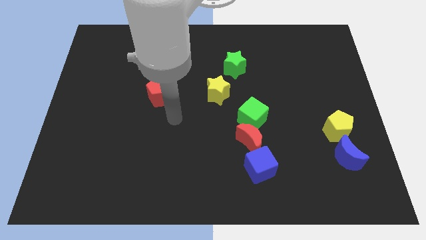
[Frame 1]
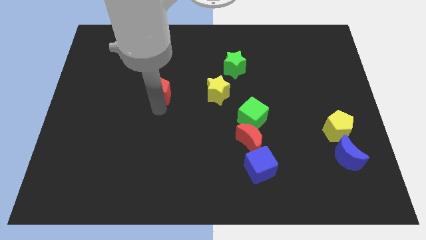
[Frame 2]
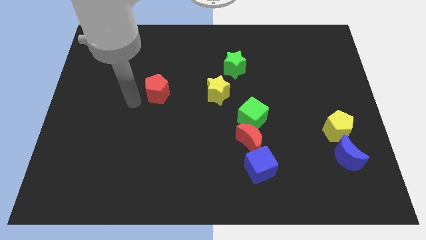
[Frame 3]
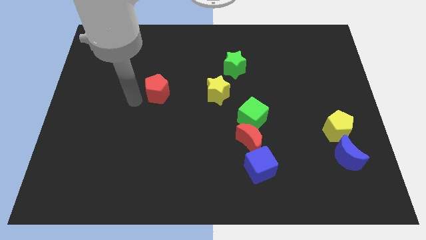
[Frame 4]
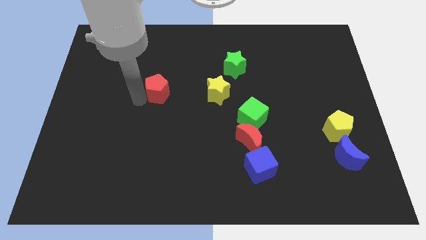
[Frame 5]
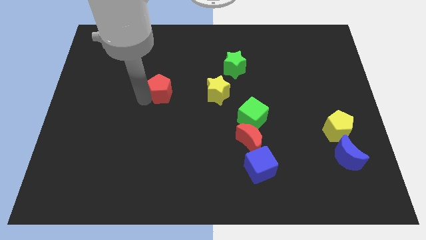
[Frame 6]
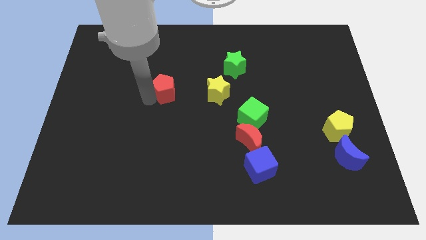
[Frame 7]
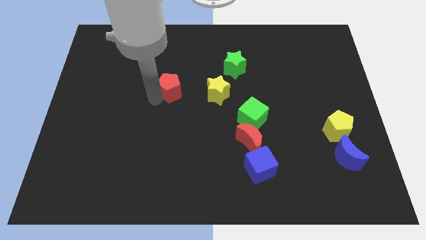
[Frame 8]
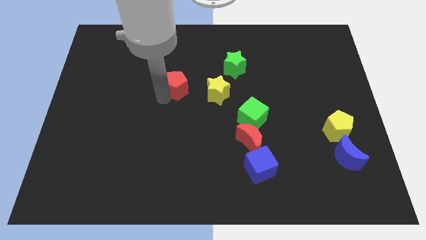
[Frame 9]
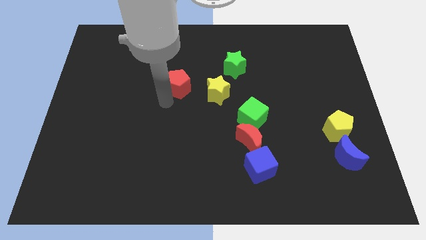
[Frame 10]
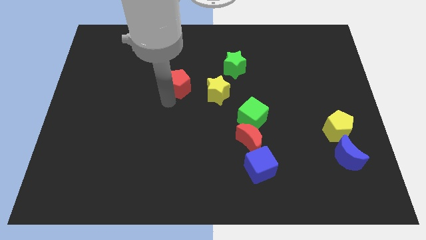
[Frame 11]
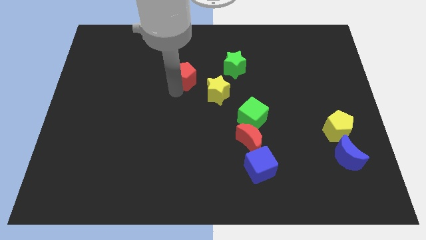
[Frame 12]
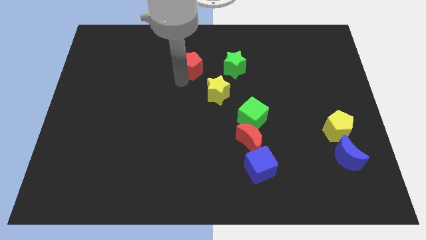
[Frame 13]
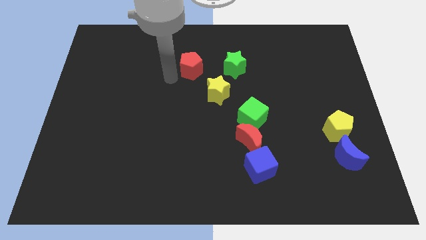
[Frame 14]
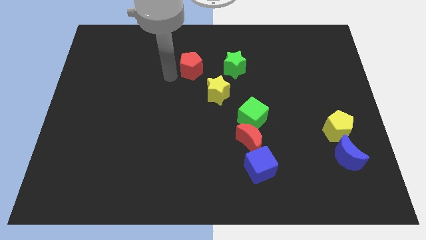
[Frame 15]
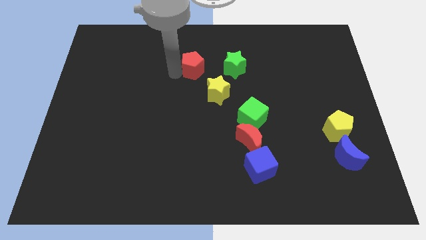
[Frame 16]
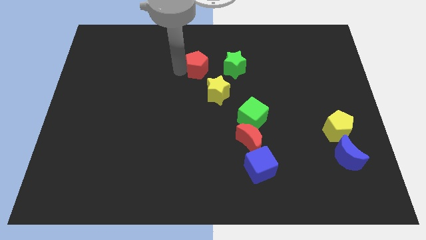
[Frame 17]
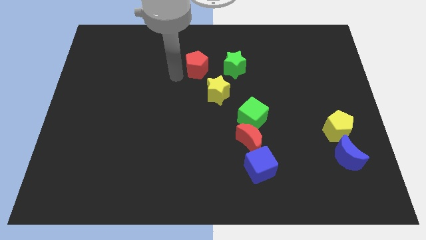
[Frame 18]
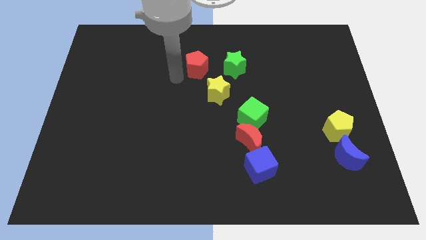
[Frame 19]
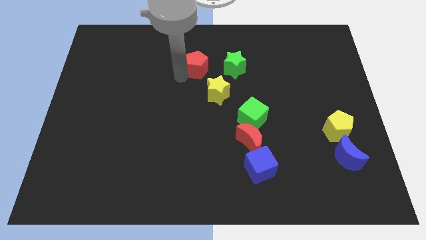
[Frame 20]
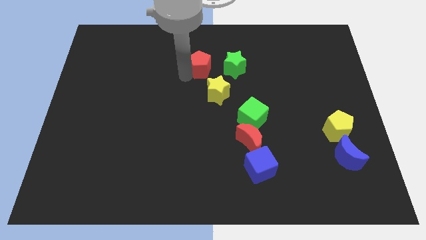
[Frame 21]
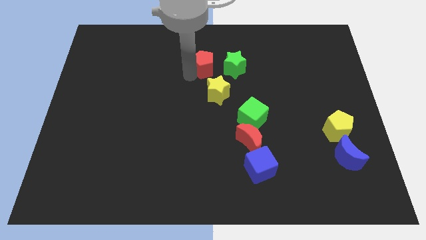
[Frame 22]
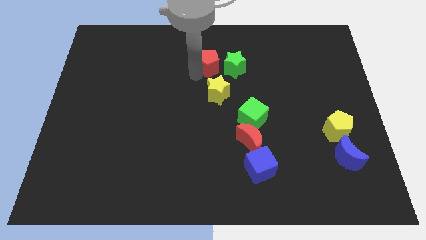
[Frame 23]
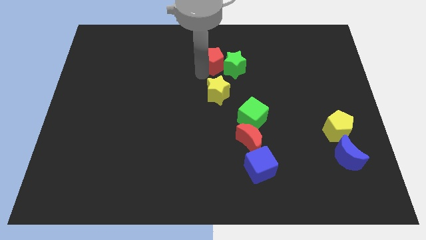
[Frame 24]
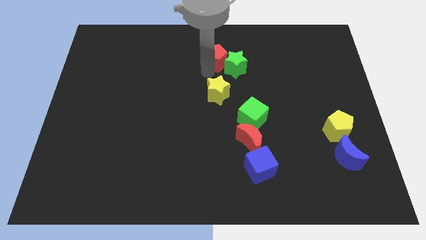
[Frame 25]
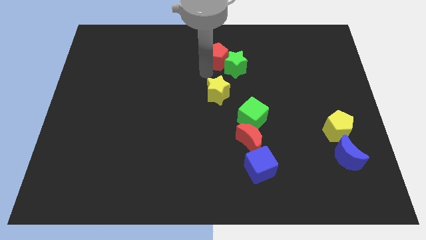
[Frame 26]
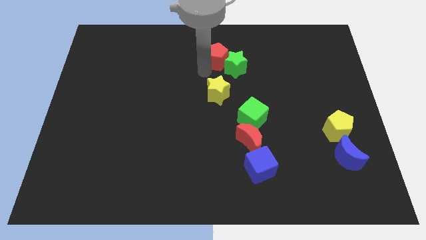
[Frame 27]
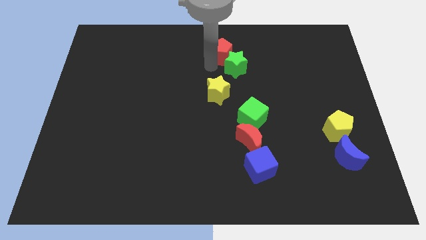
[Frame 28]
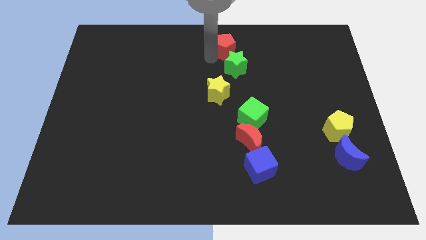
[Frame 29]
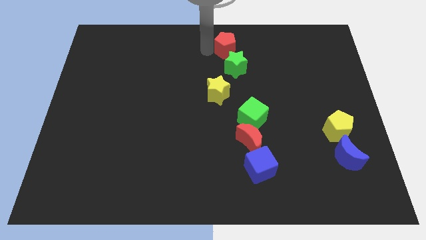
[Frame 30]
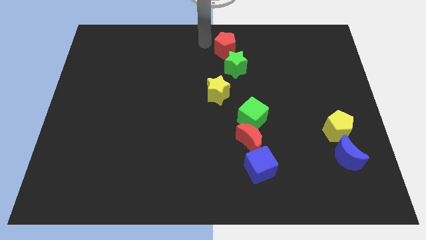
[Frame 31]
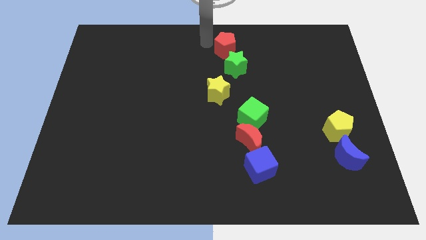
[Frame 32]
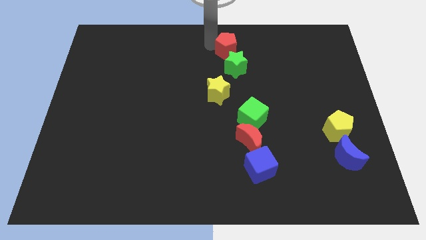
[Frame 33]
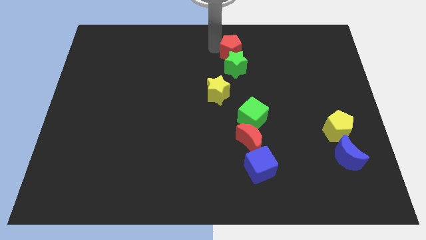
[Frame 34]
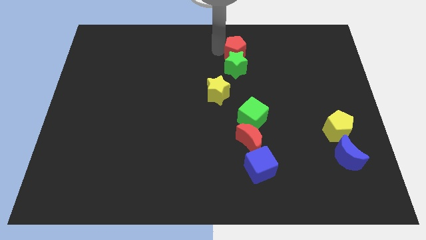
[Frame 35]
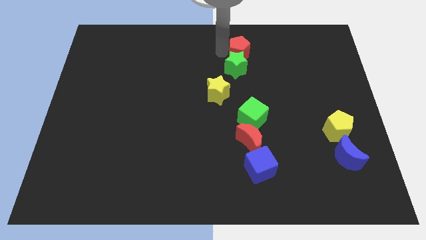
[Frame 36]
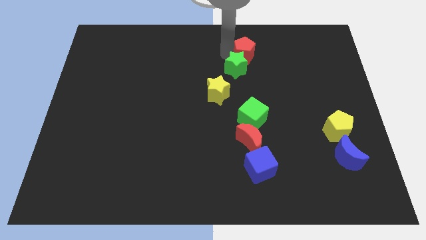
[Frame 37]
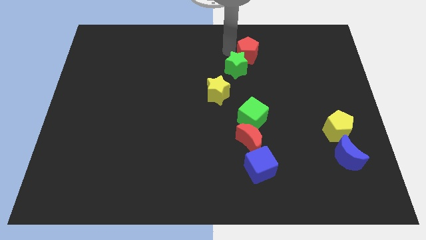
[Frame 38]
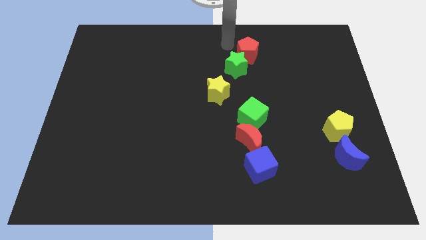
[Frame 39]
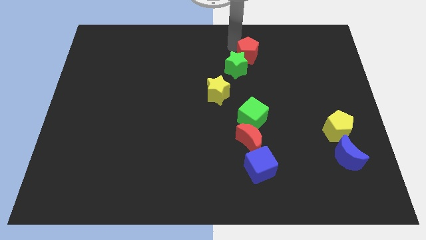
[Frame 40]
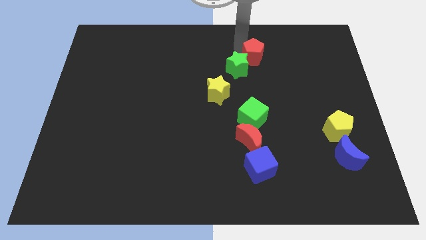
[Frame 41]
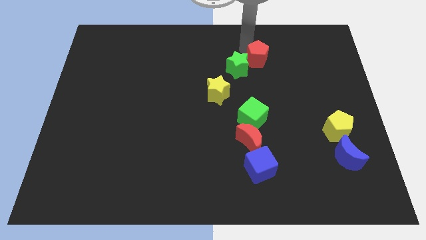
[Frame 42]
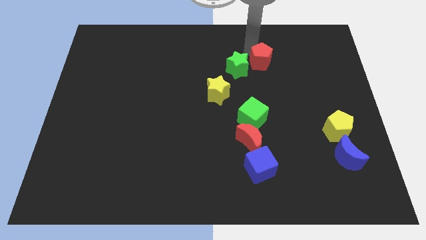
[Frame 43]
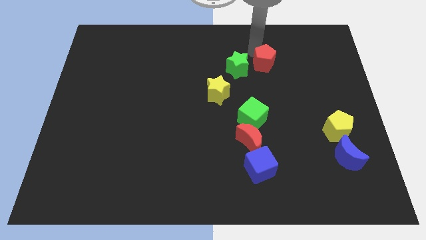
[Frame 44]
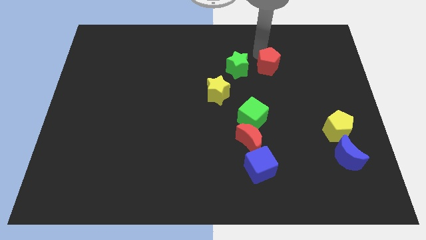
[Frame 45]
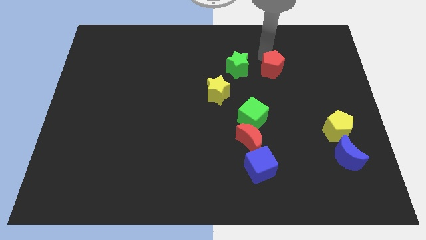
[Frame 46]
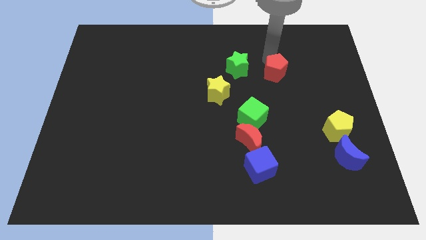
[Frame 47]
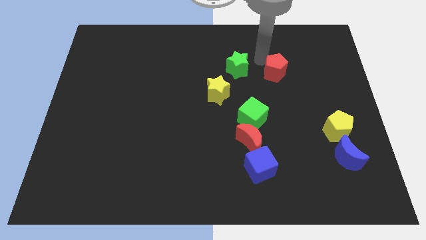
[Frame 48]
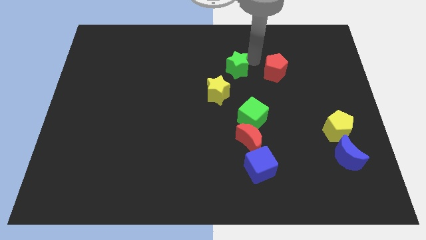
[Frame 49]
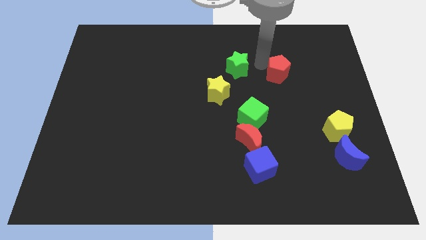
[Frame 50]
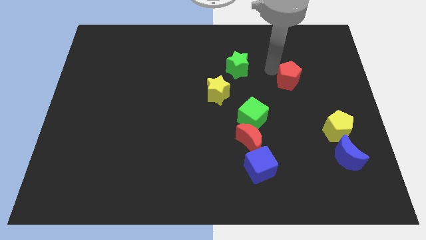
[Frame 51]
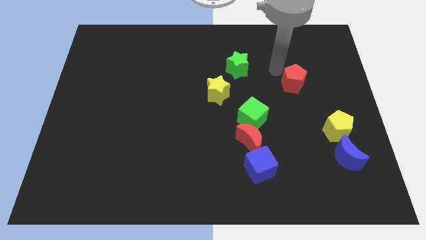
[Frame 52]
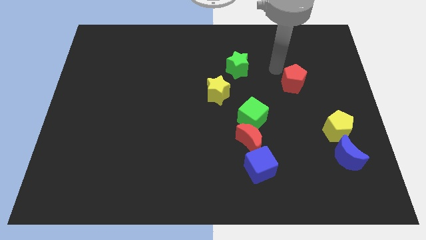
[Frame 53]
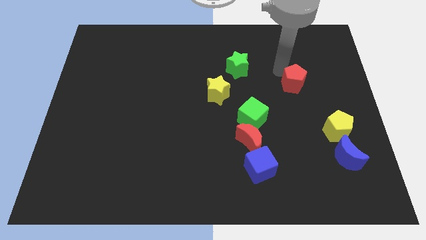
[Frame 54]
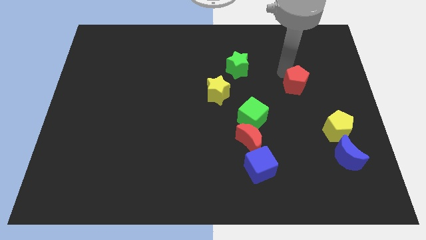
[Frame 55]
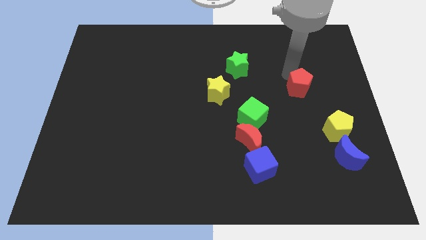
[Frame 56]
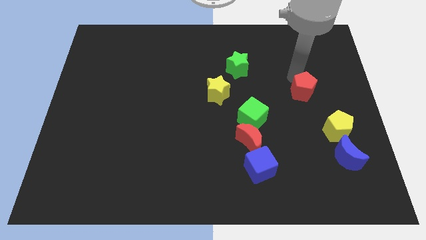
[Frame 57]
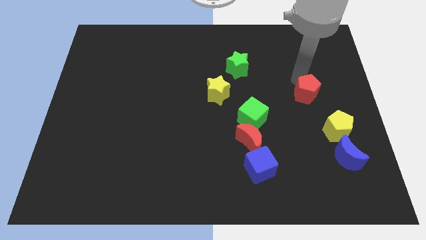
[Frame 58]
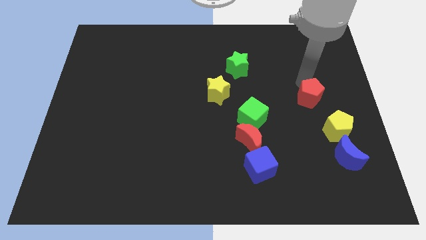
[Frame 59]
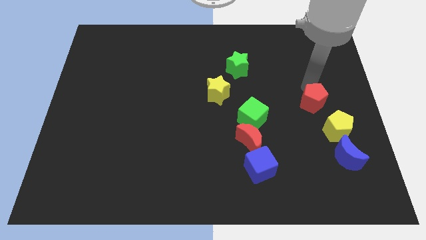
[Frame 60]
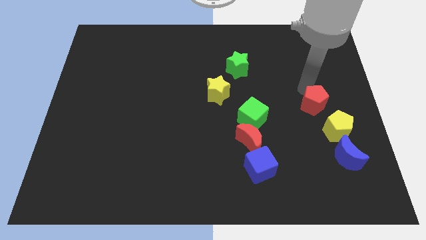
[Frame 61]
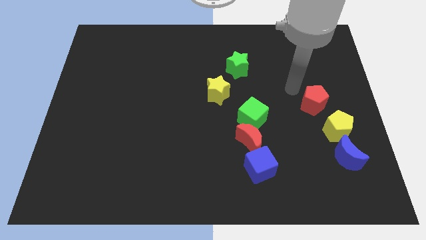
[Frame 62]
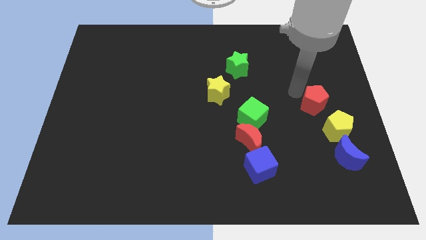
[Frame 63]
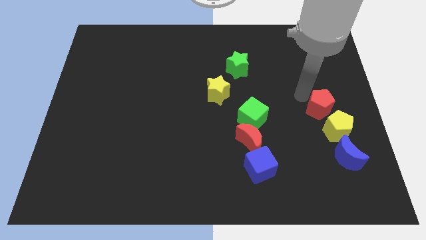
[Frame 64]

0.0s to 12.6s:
move the red pentagon to the top side of the blue moon

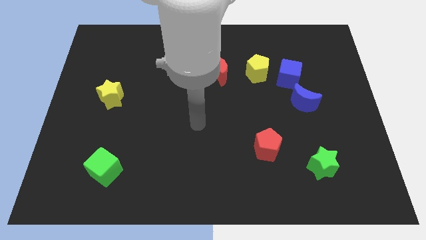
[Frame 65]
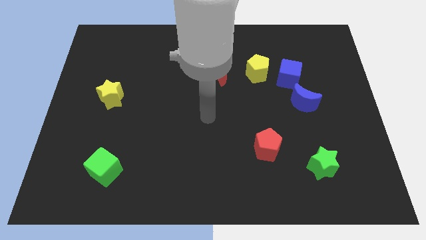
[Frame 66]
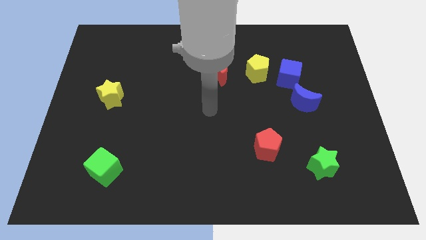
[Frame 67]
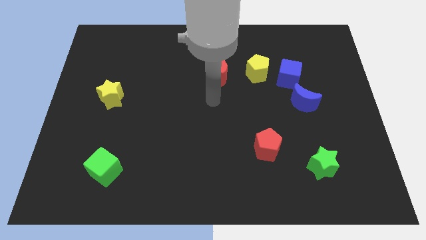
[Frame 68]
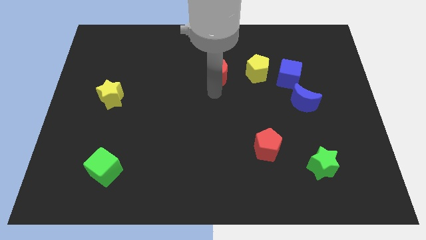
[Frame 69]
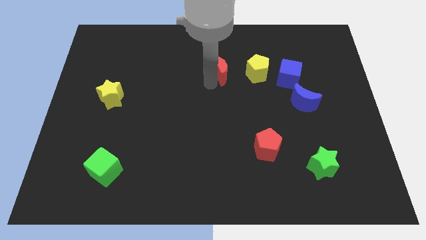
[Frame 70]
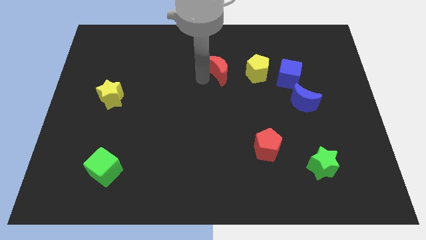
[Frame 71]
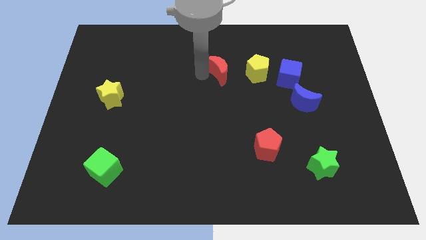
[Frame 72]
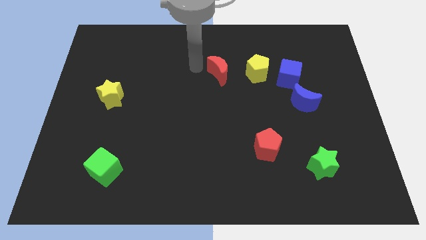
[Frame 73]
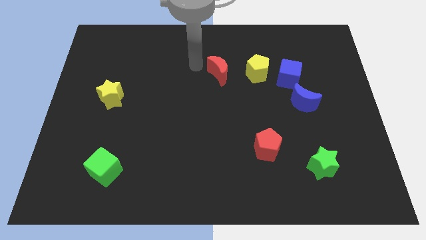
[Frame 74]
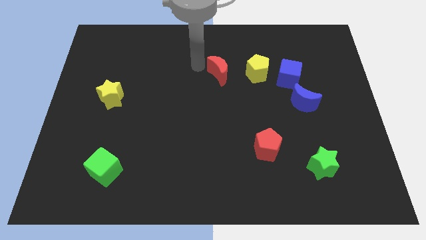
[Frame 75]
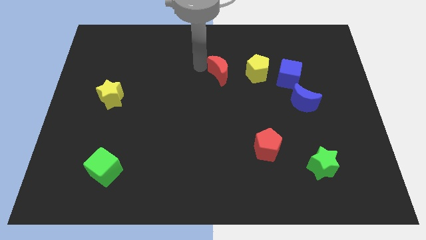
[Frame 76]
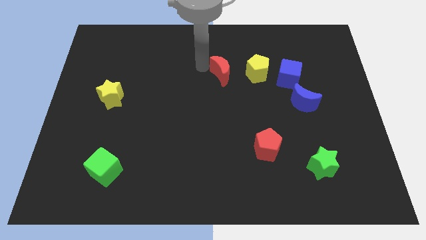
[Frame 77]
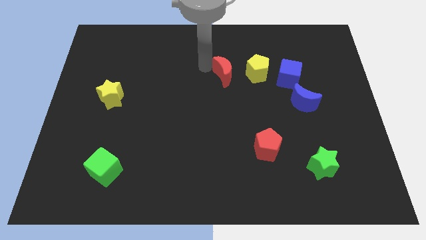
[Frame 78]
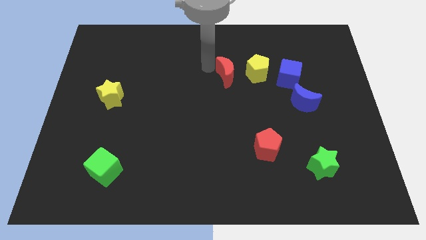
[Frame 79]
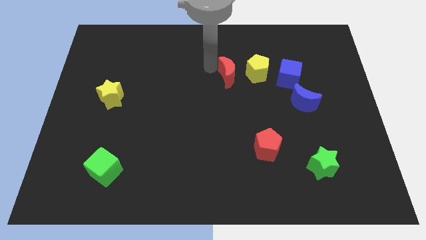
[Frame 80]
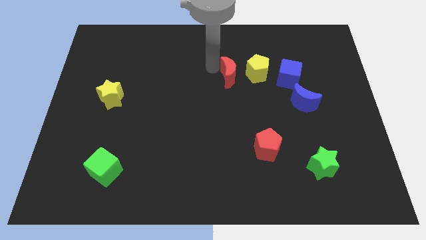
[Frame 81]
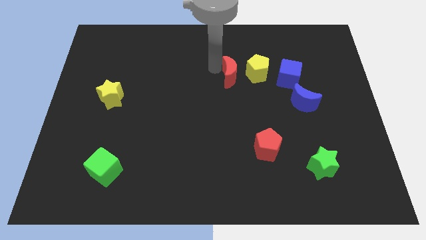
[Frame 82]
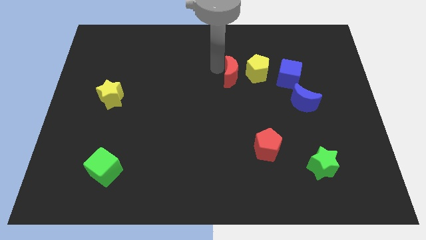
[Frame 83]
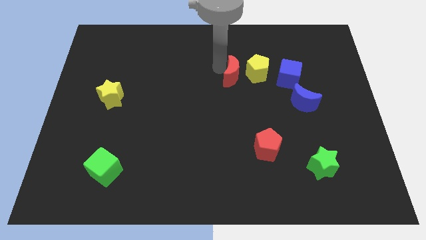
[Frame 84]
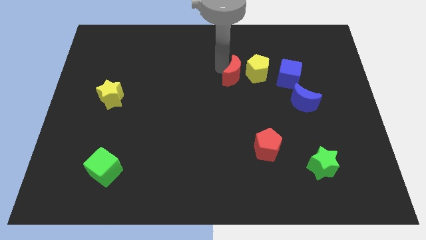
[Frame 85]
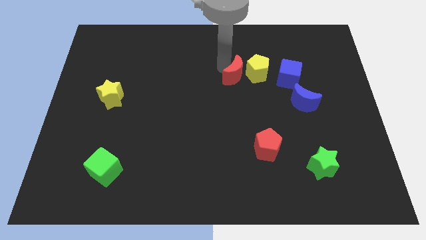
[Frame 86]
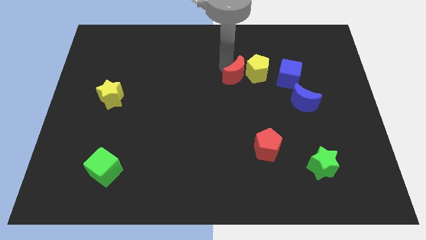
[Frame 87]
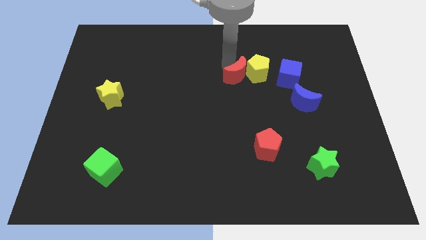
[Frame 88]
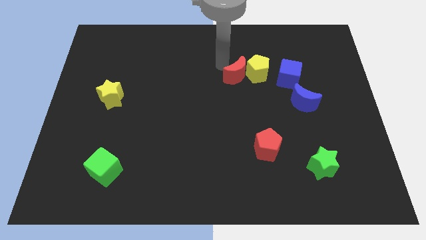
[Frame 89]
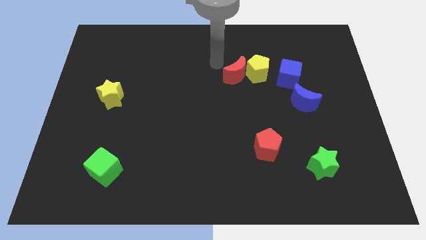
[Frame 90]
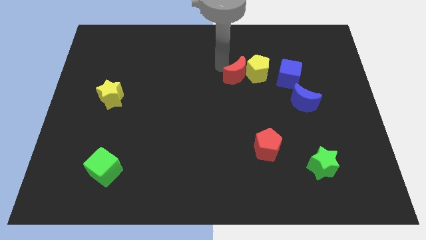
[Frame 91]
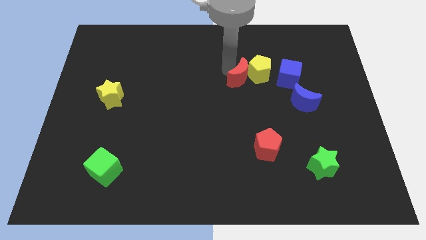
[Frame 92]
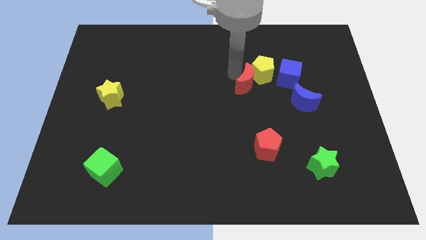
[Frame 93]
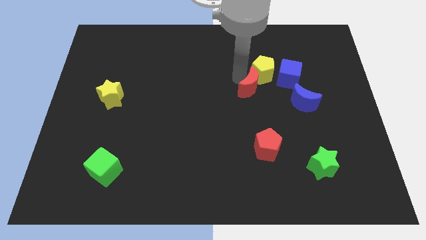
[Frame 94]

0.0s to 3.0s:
push the red moon to the bottom left of the blue cube
